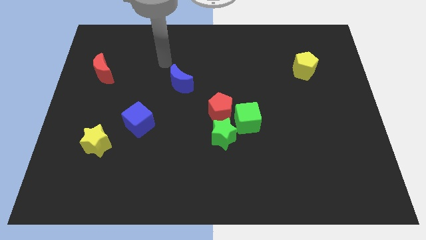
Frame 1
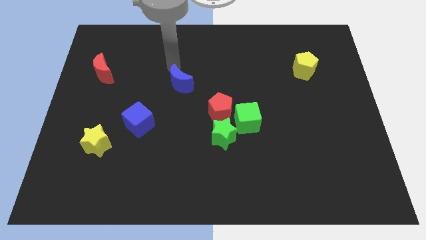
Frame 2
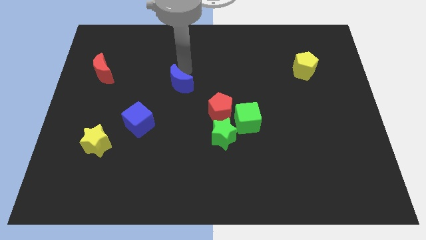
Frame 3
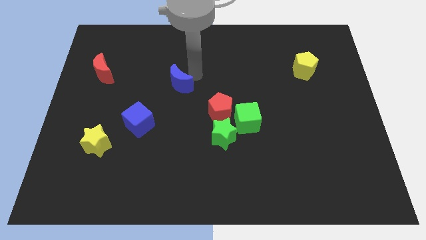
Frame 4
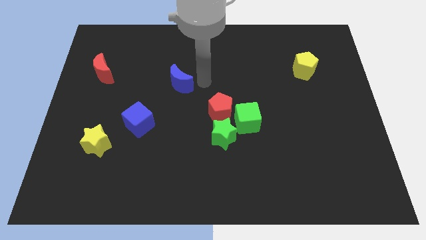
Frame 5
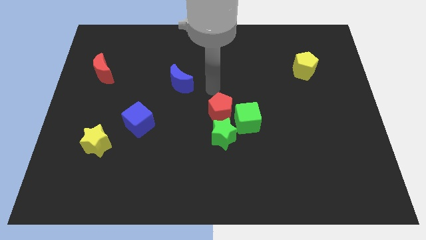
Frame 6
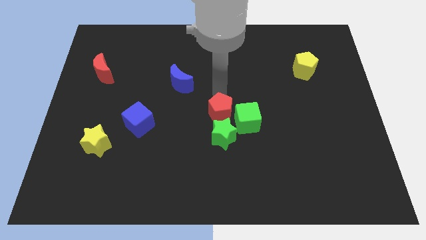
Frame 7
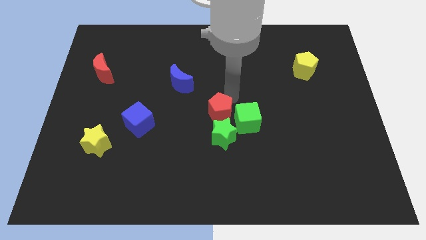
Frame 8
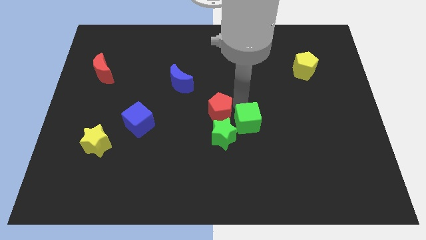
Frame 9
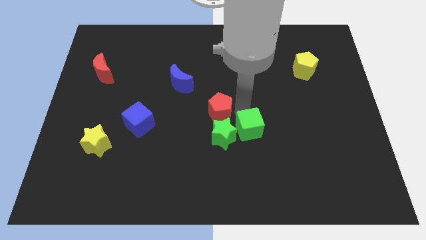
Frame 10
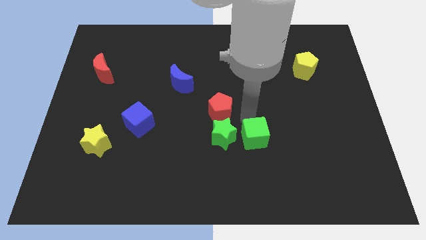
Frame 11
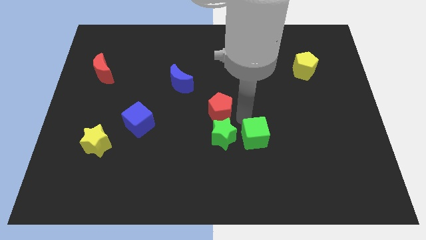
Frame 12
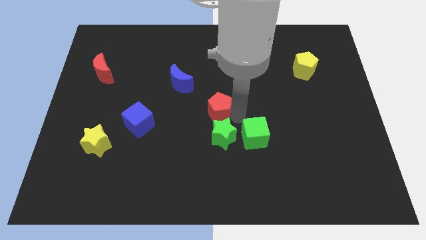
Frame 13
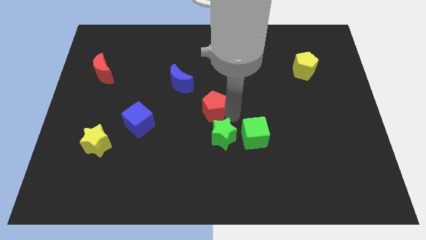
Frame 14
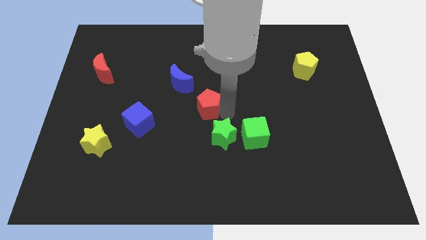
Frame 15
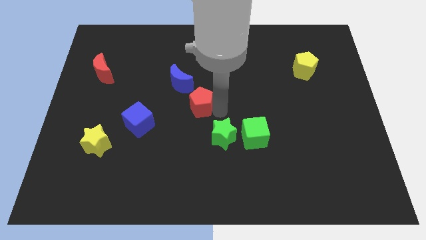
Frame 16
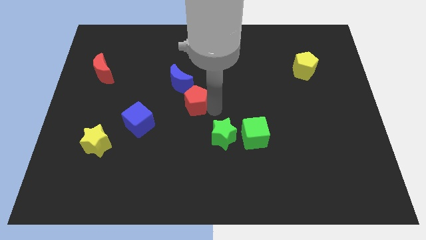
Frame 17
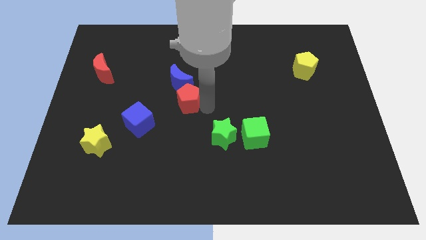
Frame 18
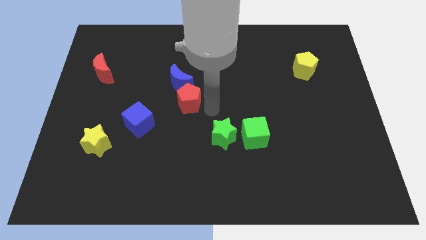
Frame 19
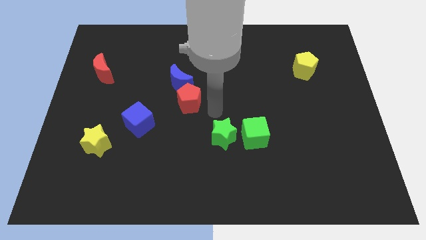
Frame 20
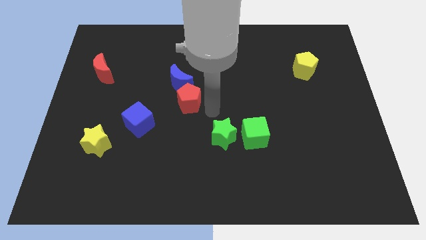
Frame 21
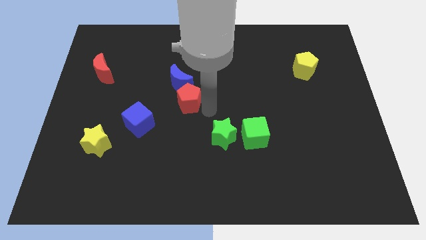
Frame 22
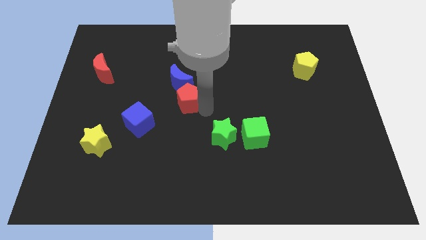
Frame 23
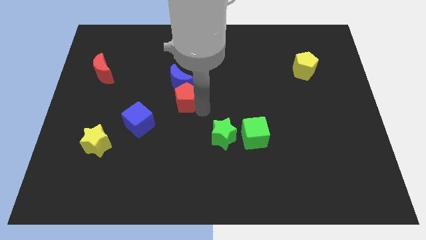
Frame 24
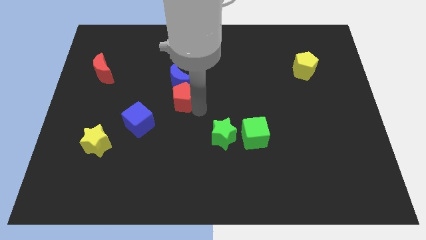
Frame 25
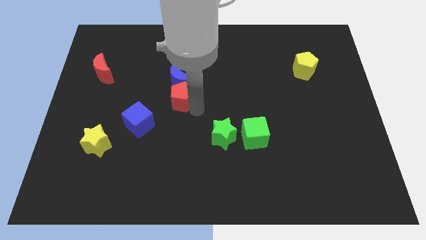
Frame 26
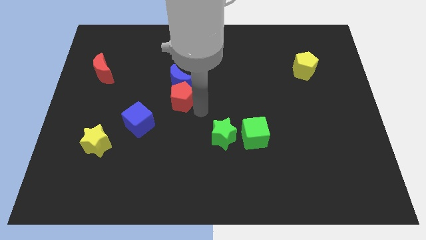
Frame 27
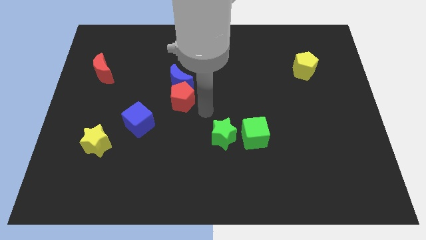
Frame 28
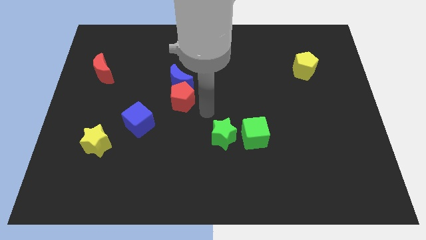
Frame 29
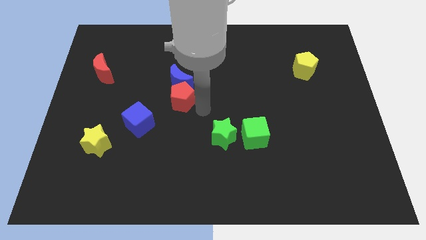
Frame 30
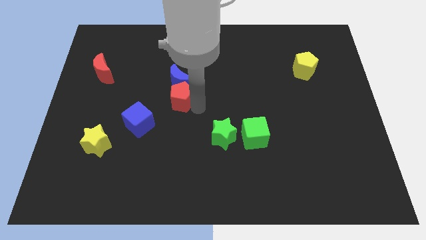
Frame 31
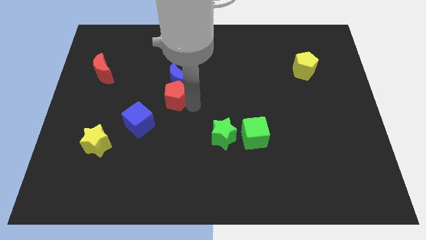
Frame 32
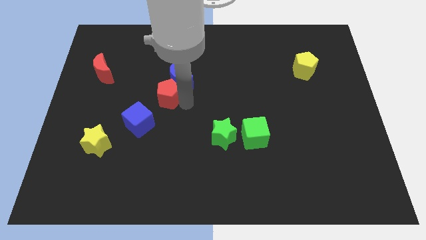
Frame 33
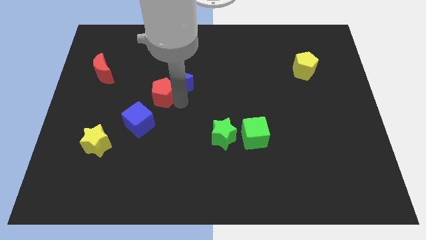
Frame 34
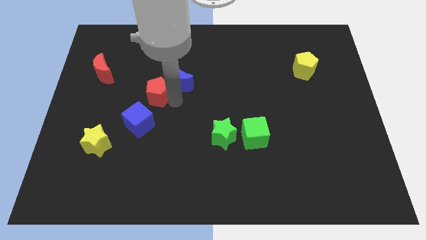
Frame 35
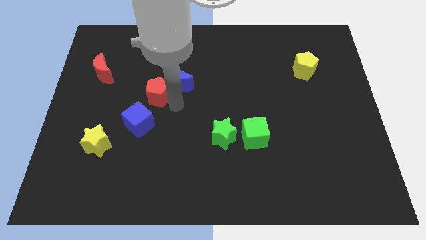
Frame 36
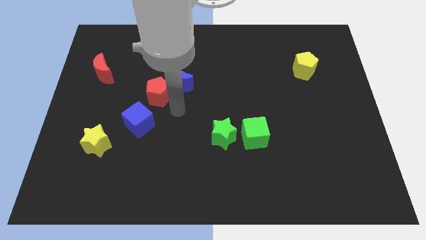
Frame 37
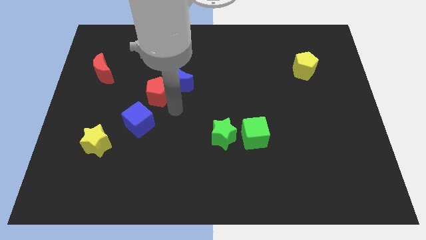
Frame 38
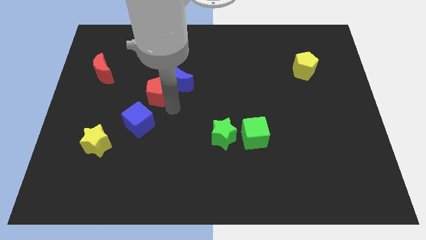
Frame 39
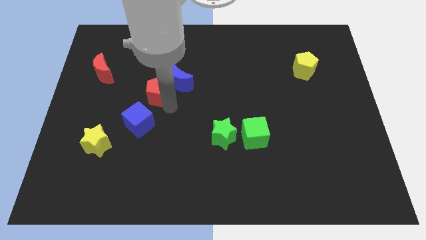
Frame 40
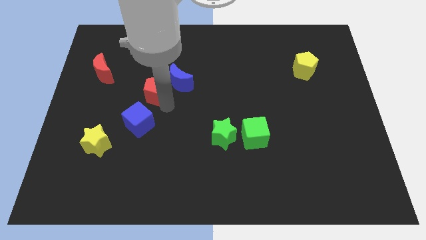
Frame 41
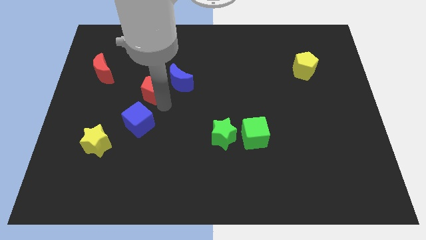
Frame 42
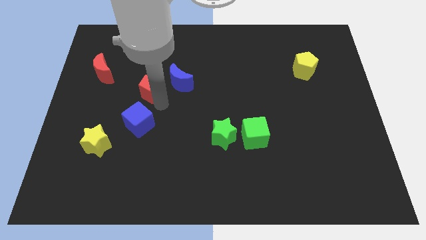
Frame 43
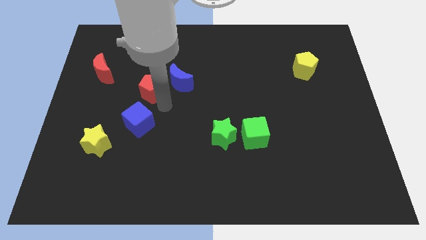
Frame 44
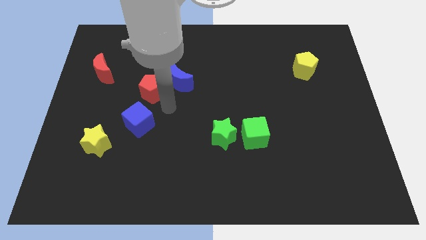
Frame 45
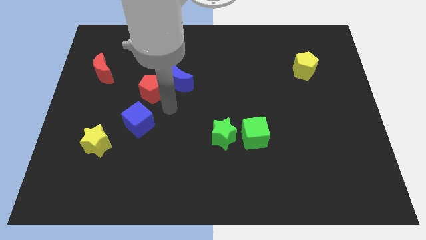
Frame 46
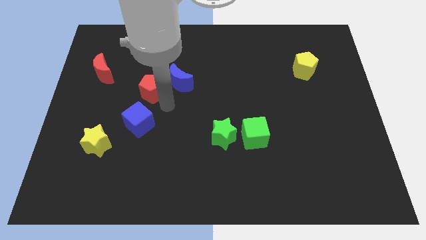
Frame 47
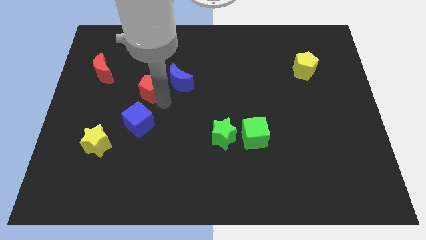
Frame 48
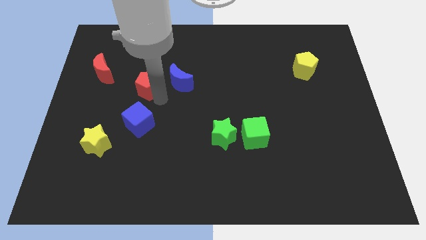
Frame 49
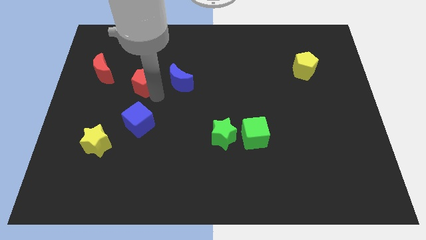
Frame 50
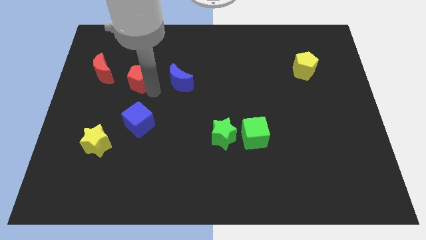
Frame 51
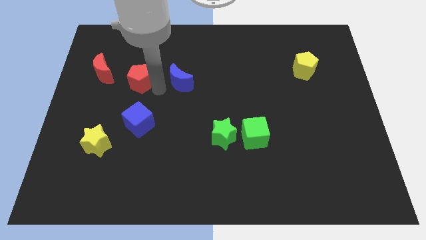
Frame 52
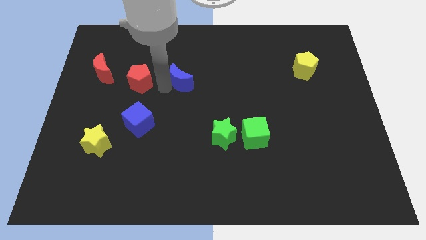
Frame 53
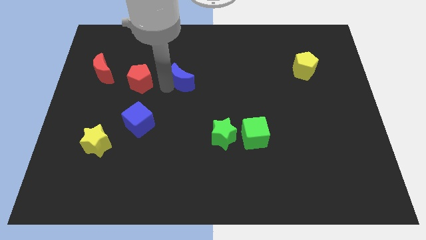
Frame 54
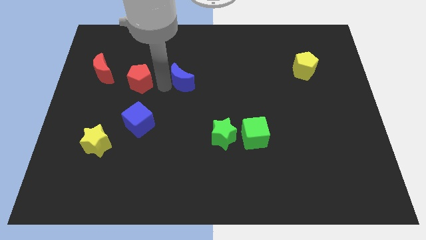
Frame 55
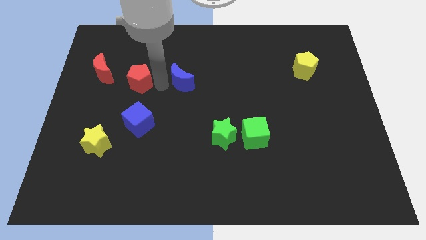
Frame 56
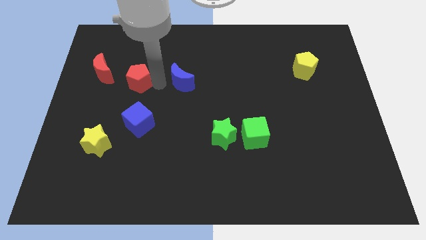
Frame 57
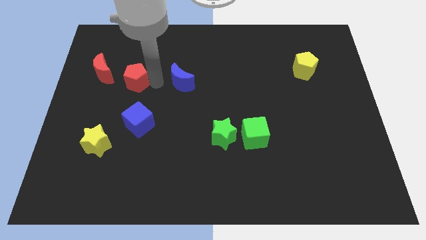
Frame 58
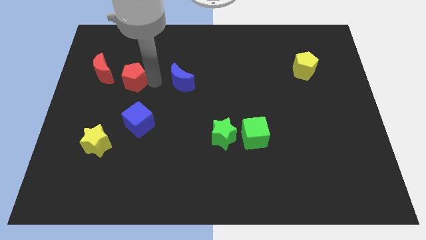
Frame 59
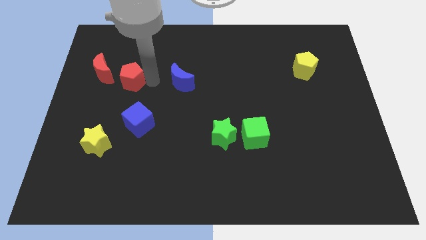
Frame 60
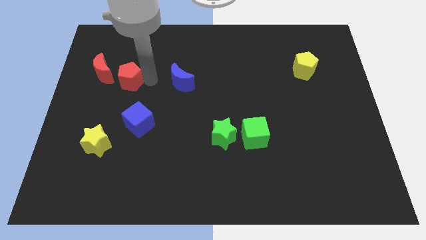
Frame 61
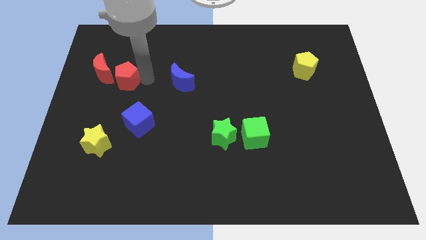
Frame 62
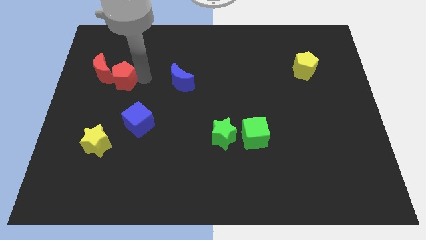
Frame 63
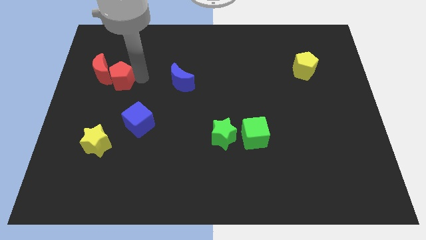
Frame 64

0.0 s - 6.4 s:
move the red pentagon next to the red moon

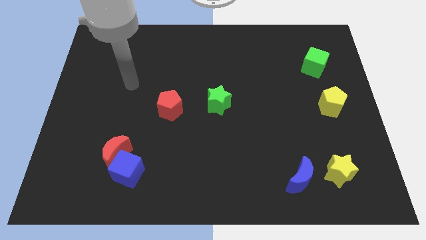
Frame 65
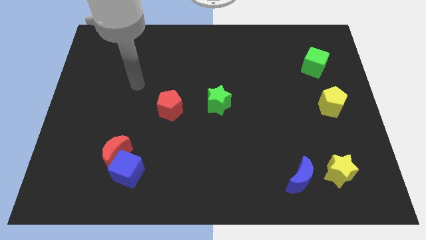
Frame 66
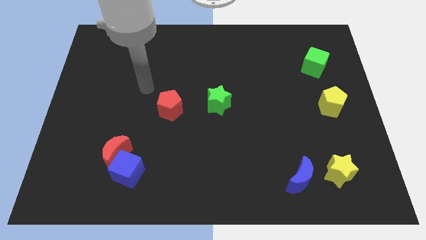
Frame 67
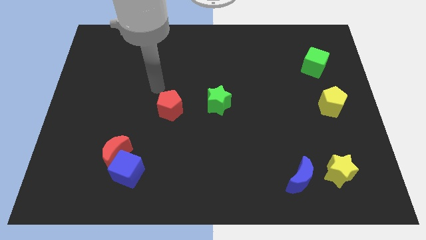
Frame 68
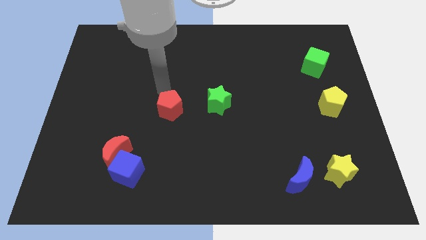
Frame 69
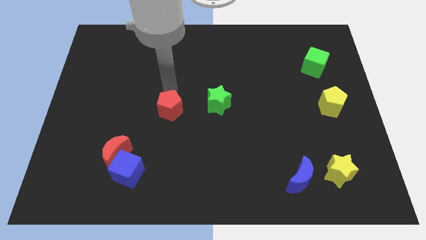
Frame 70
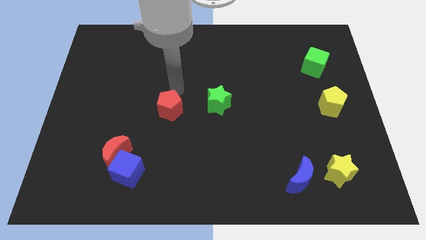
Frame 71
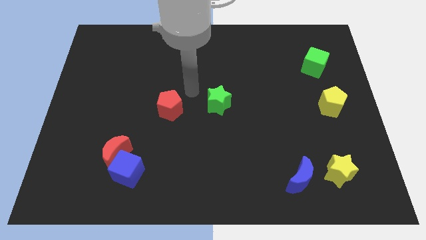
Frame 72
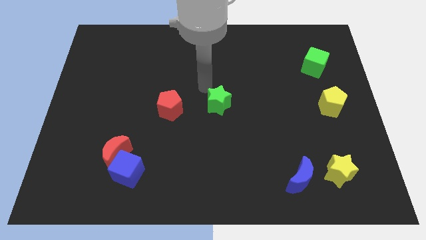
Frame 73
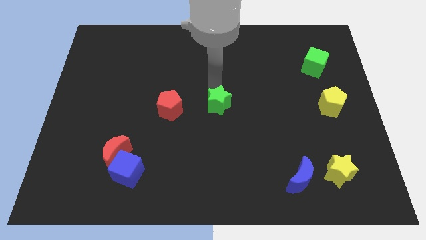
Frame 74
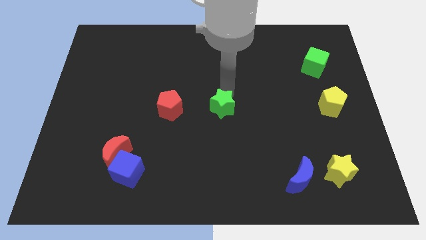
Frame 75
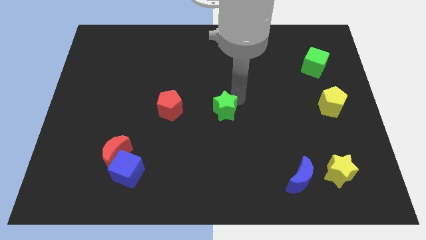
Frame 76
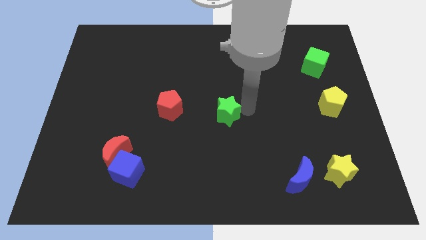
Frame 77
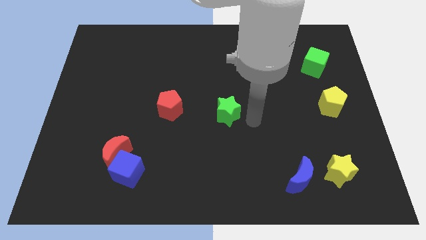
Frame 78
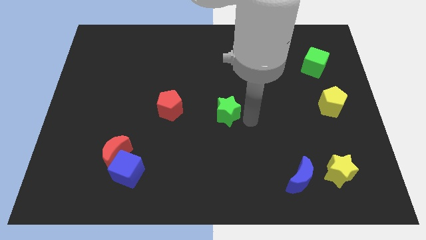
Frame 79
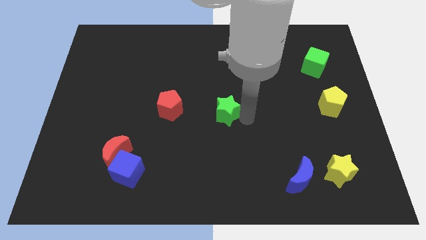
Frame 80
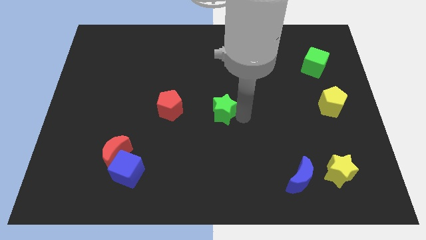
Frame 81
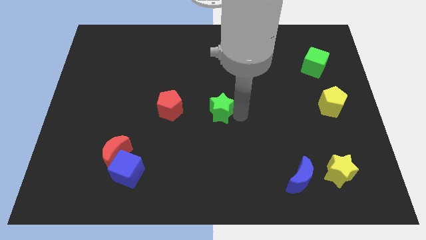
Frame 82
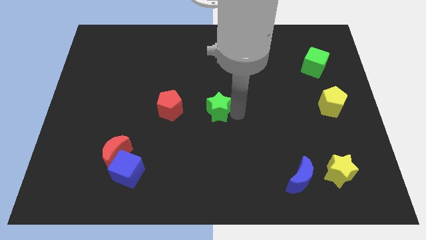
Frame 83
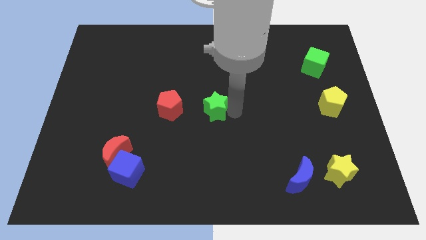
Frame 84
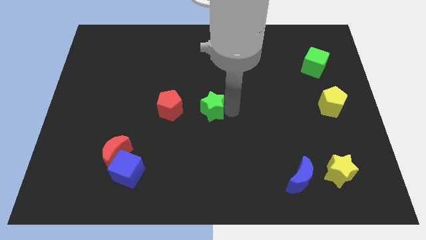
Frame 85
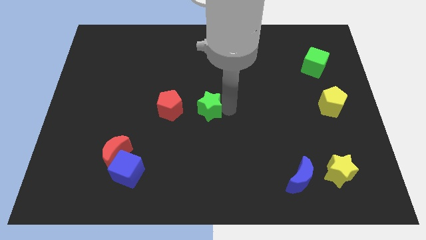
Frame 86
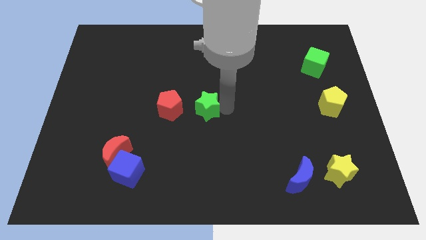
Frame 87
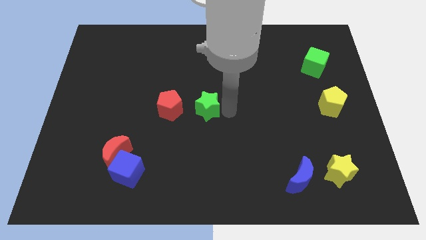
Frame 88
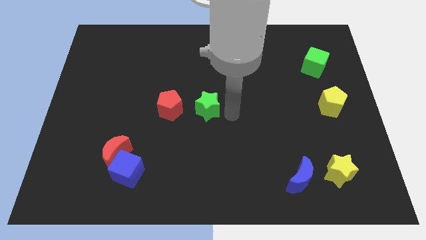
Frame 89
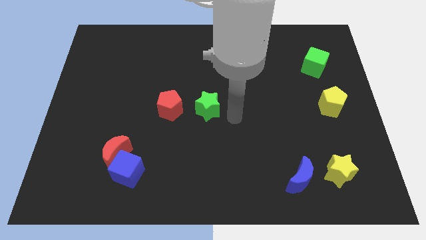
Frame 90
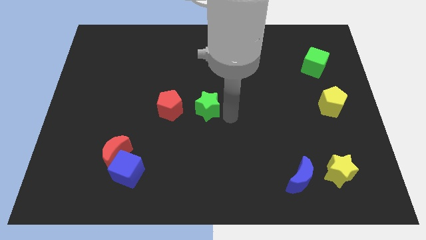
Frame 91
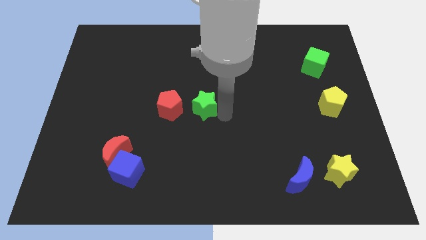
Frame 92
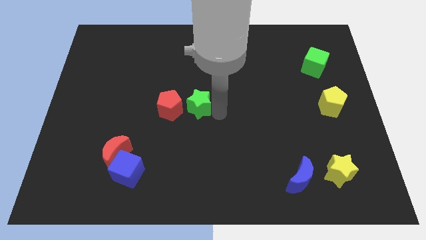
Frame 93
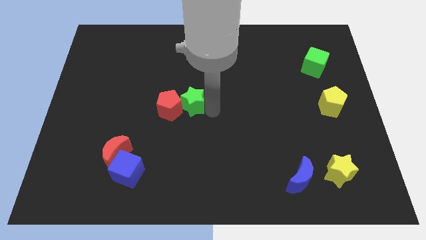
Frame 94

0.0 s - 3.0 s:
put the green star towards the red pentagon
